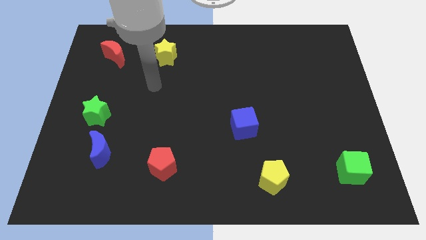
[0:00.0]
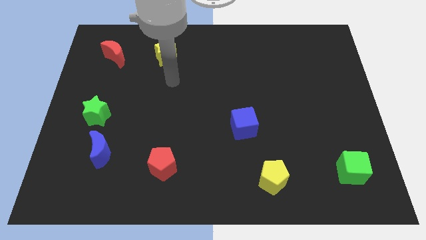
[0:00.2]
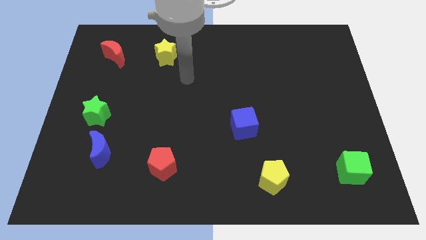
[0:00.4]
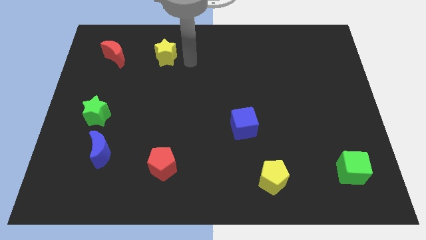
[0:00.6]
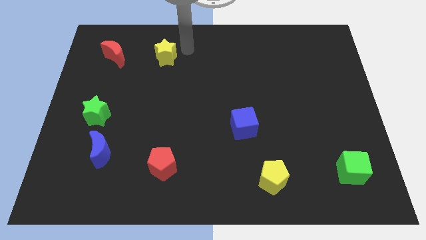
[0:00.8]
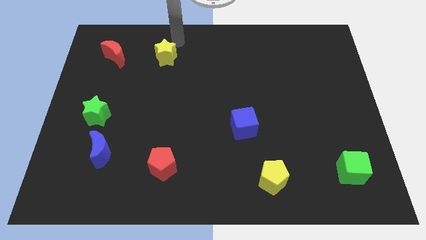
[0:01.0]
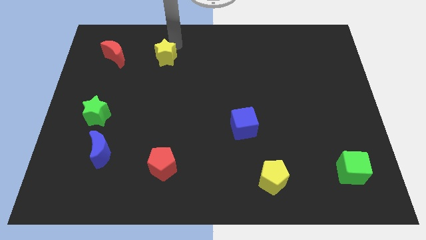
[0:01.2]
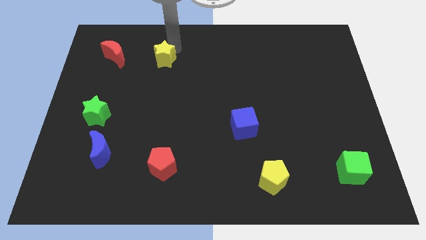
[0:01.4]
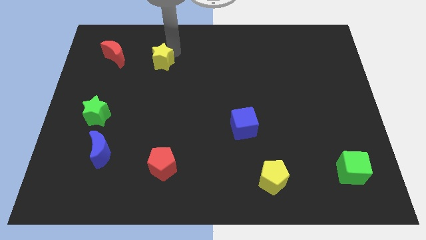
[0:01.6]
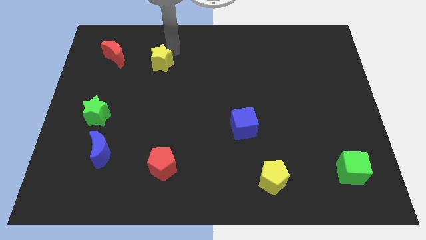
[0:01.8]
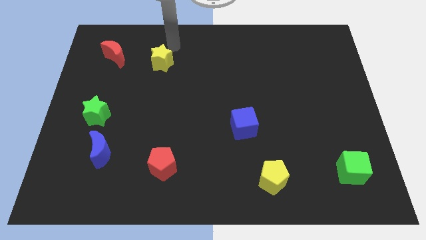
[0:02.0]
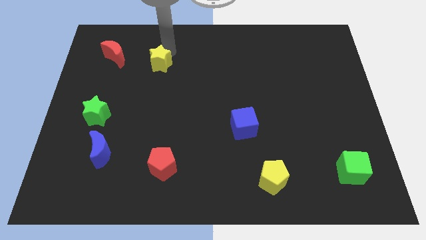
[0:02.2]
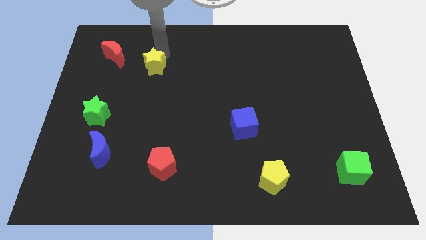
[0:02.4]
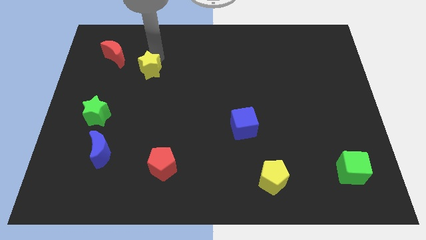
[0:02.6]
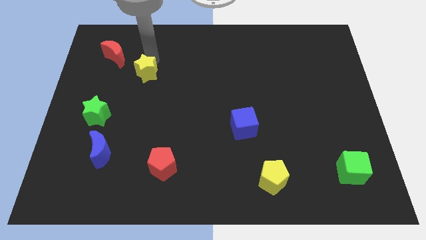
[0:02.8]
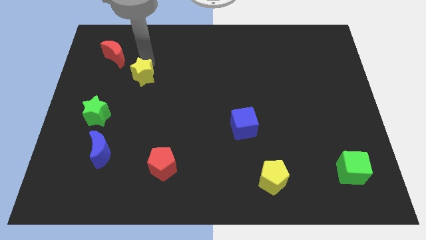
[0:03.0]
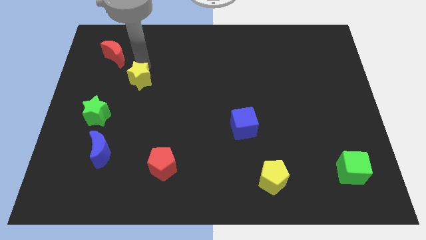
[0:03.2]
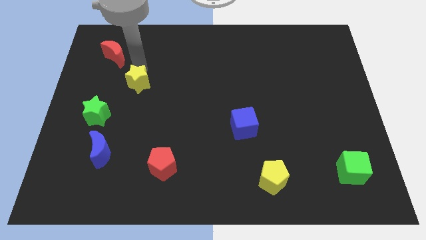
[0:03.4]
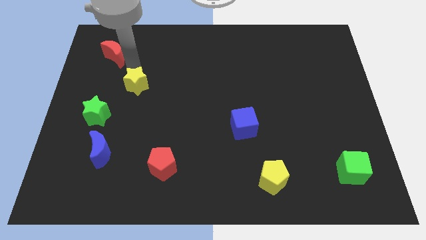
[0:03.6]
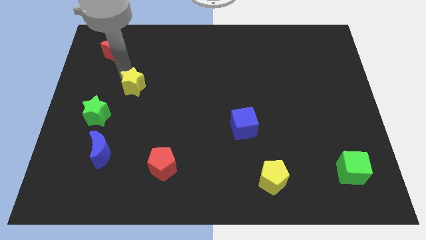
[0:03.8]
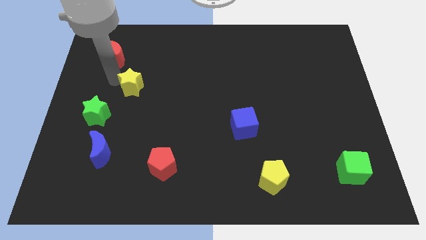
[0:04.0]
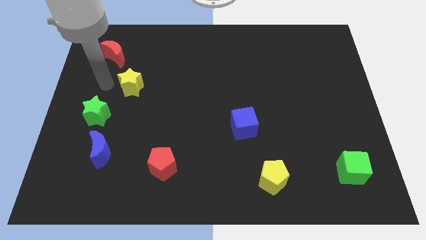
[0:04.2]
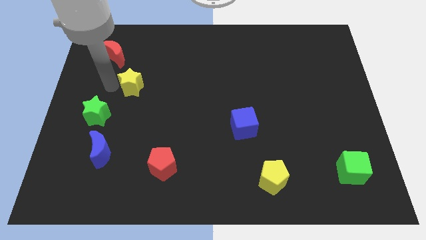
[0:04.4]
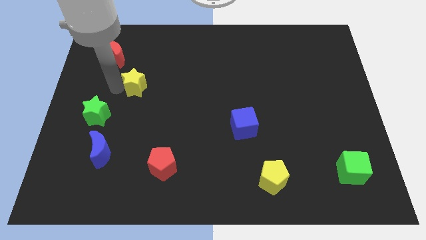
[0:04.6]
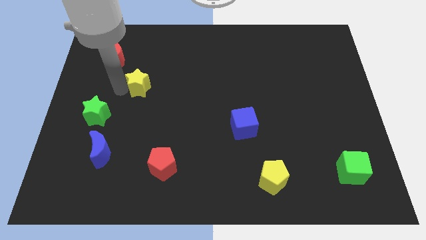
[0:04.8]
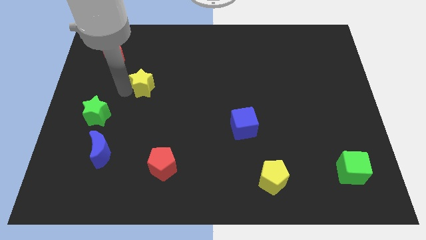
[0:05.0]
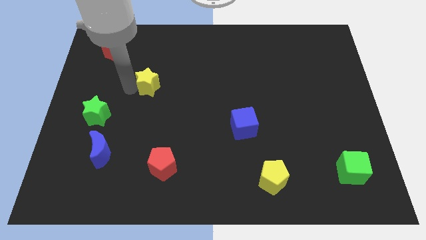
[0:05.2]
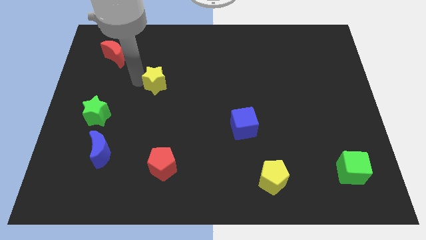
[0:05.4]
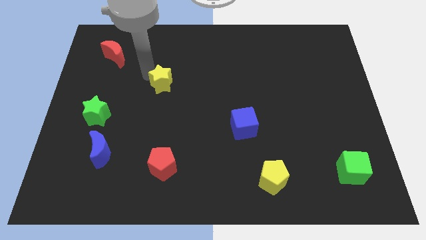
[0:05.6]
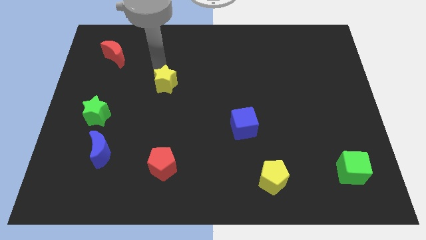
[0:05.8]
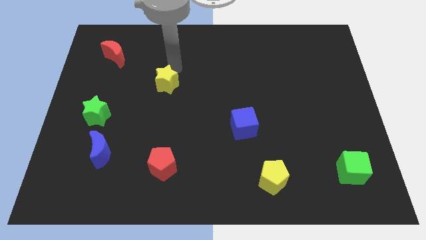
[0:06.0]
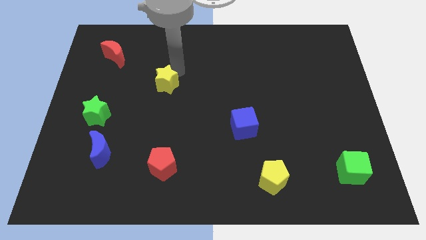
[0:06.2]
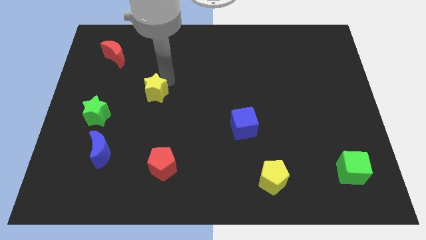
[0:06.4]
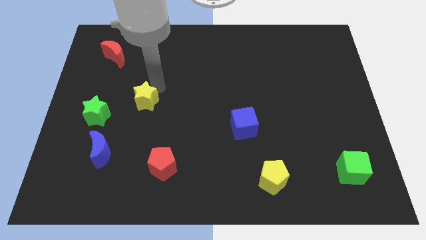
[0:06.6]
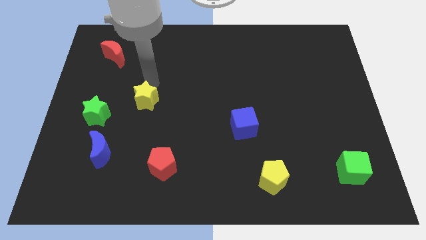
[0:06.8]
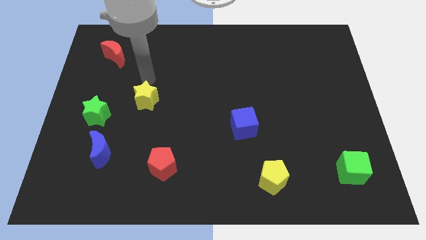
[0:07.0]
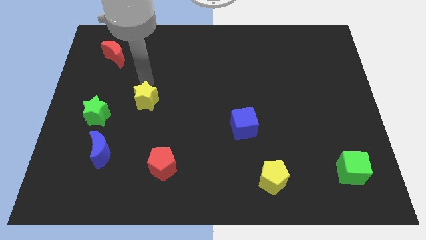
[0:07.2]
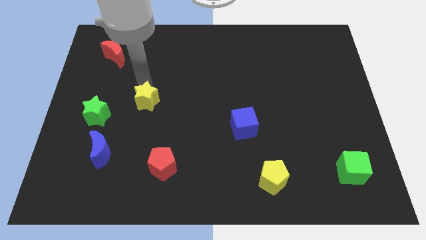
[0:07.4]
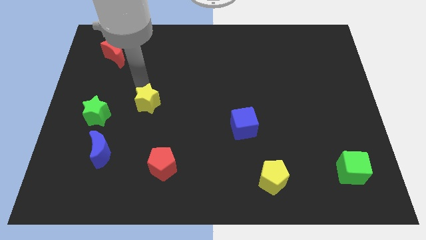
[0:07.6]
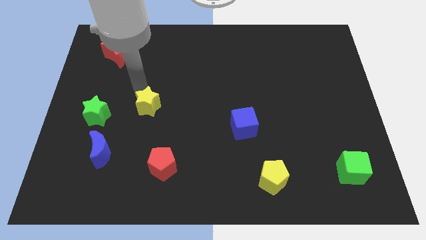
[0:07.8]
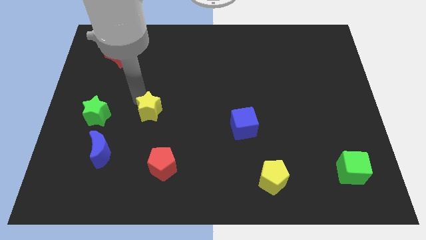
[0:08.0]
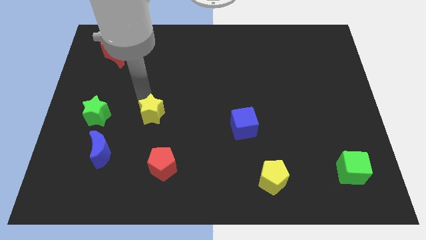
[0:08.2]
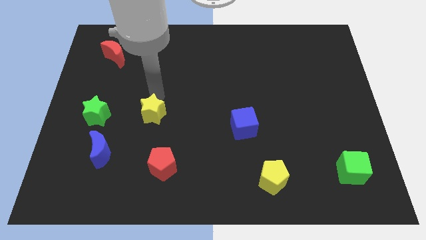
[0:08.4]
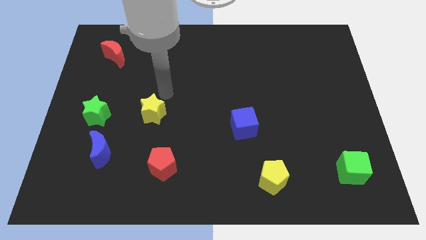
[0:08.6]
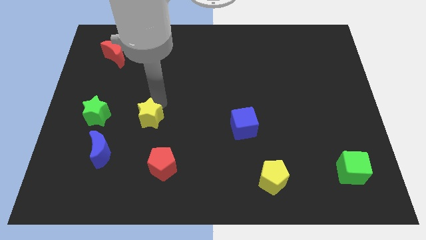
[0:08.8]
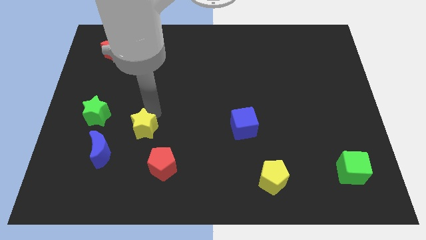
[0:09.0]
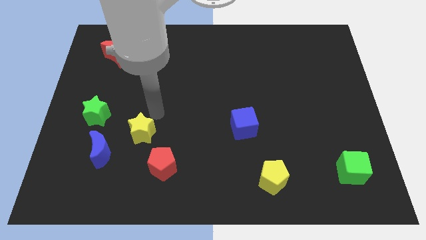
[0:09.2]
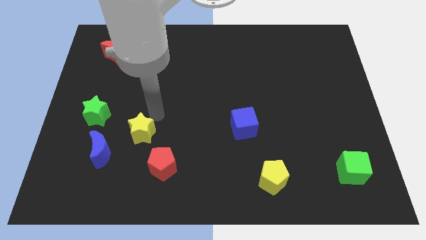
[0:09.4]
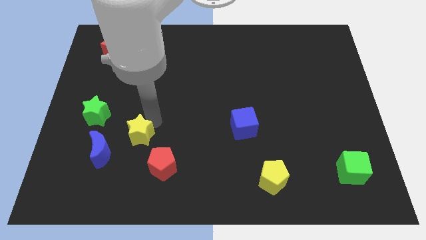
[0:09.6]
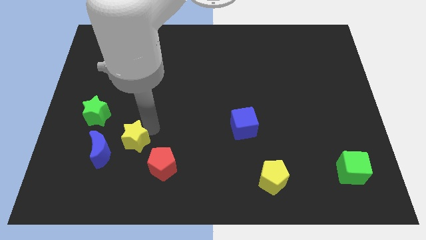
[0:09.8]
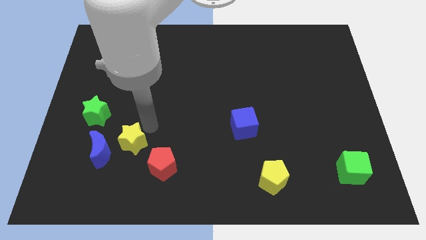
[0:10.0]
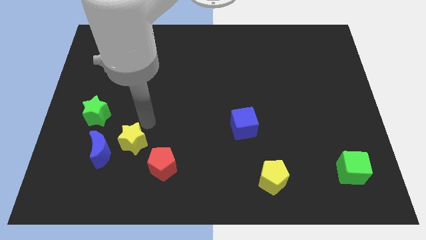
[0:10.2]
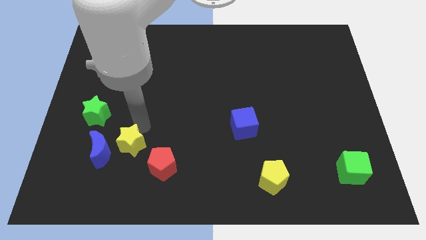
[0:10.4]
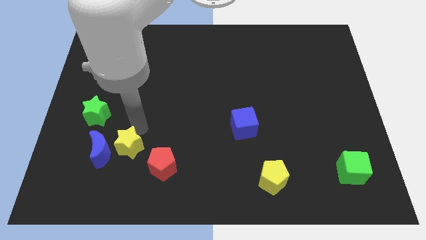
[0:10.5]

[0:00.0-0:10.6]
push the yellow star to the left side of the red pentagon

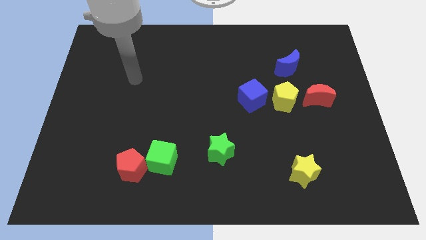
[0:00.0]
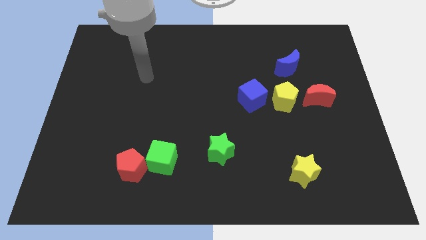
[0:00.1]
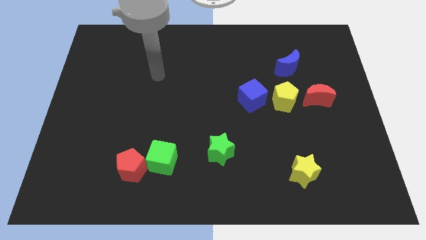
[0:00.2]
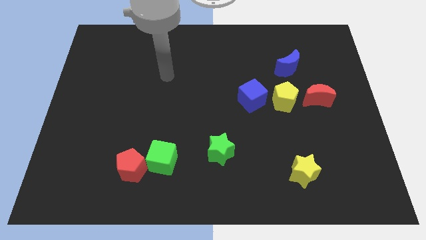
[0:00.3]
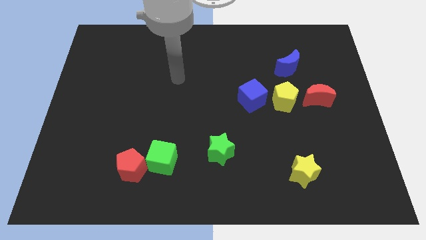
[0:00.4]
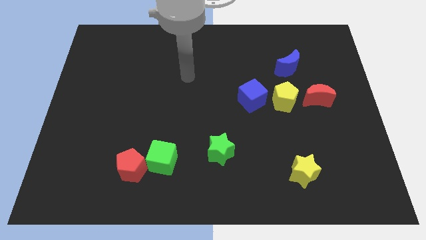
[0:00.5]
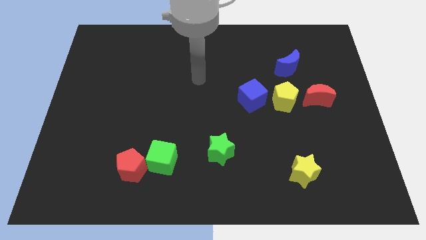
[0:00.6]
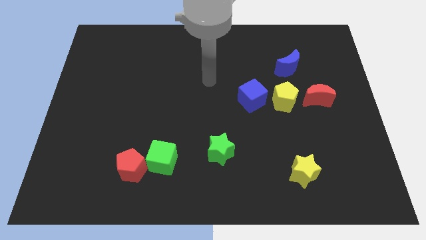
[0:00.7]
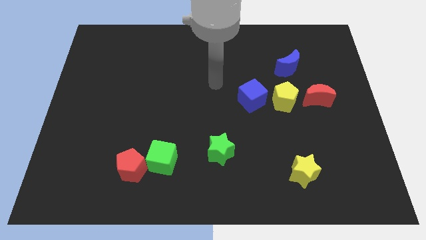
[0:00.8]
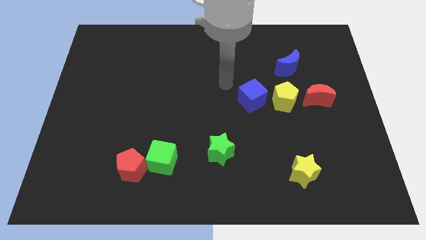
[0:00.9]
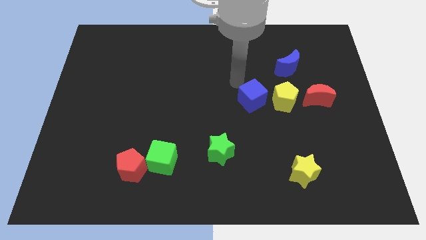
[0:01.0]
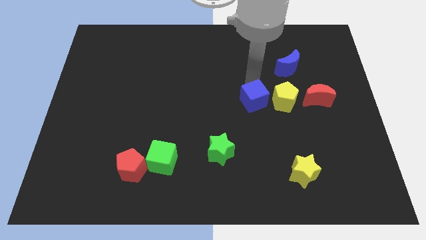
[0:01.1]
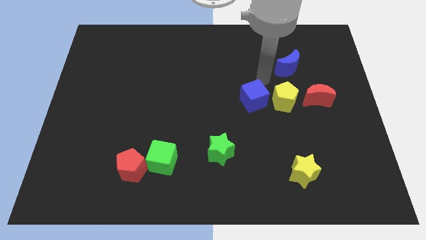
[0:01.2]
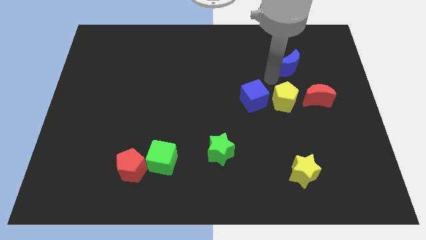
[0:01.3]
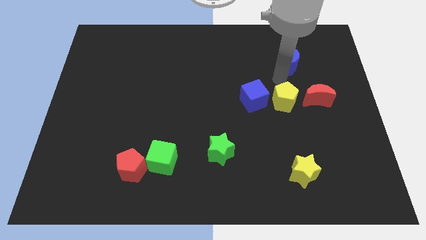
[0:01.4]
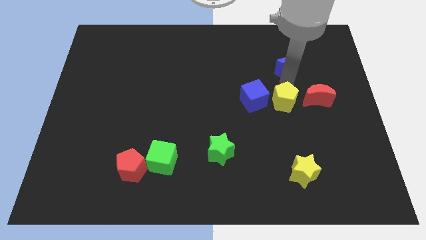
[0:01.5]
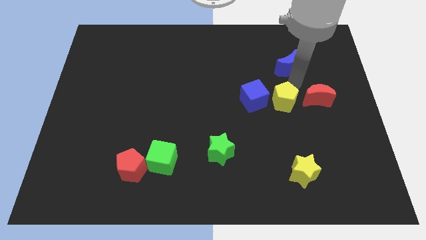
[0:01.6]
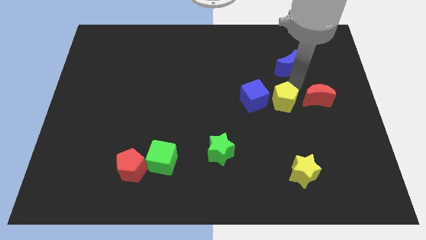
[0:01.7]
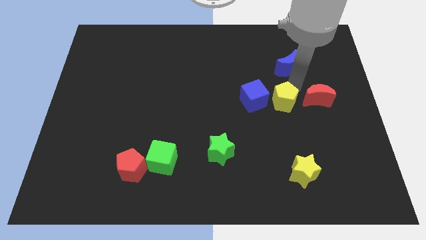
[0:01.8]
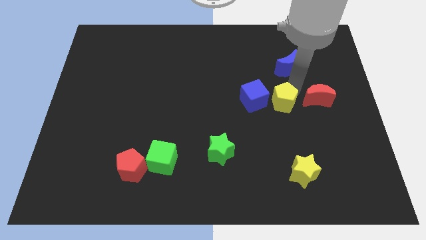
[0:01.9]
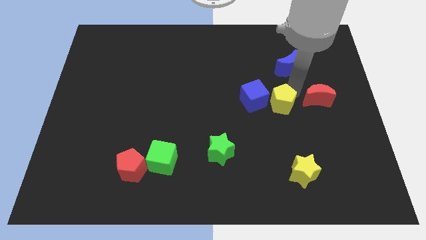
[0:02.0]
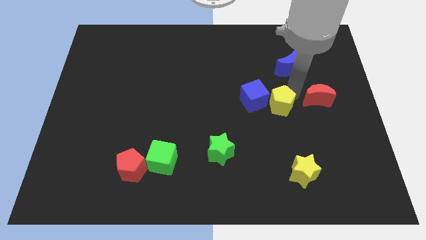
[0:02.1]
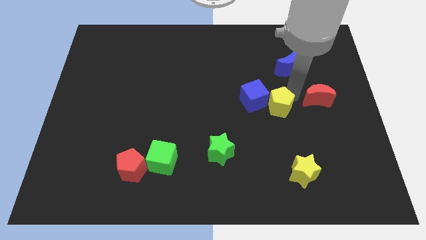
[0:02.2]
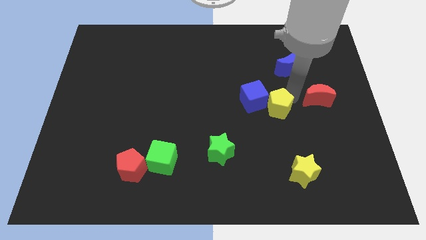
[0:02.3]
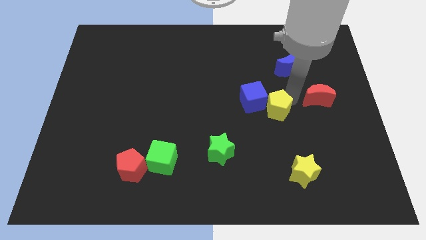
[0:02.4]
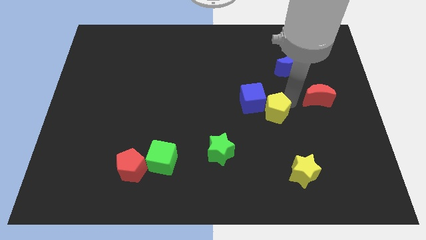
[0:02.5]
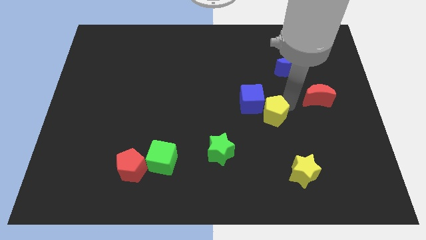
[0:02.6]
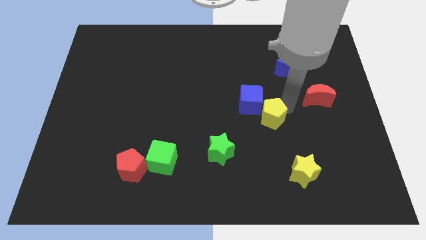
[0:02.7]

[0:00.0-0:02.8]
move the yellow pentagon to the bottom of the blue cube
